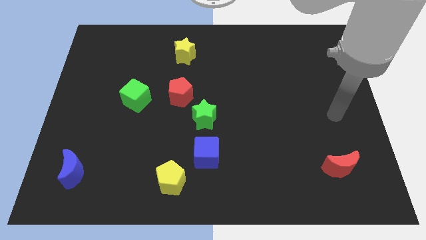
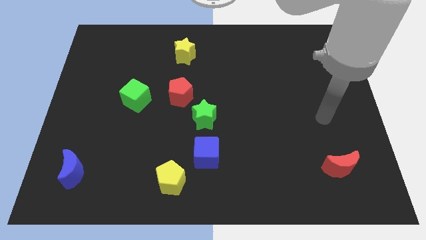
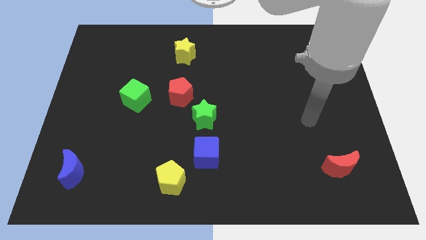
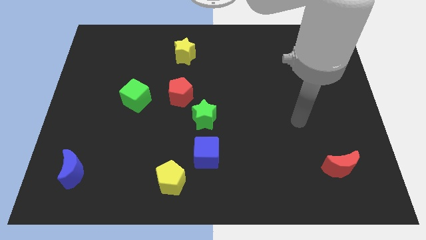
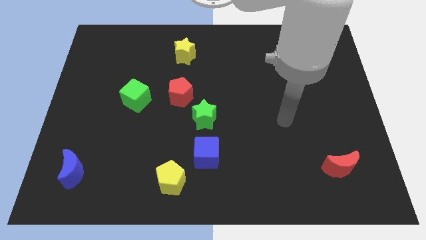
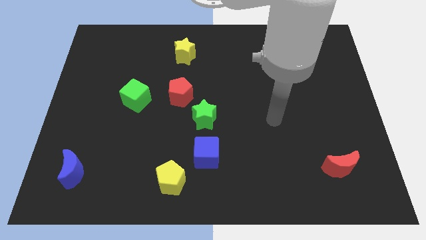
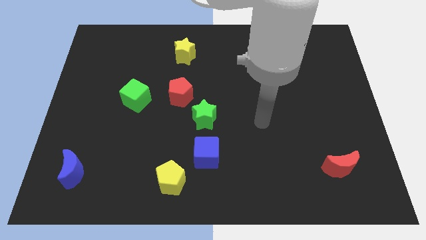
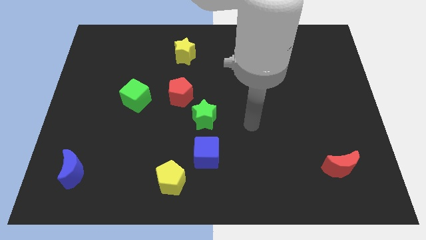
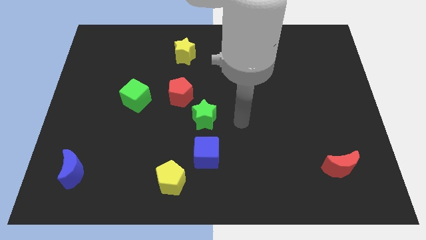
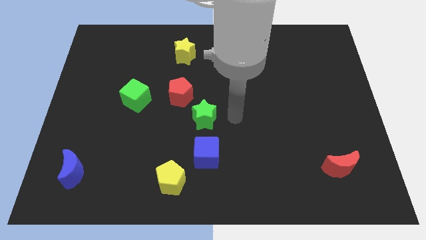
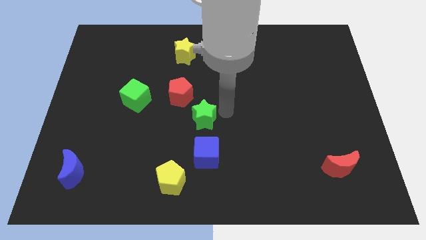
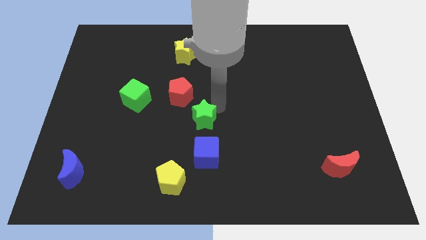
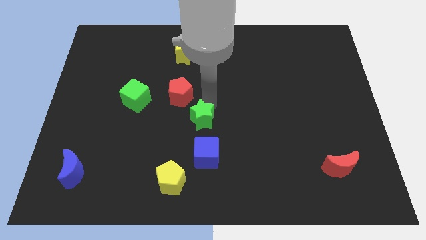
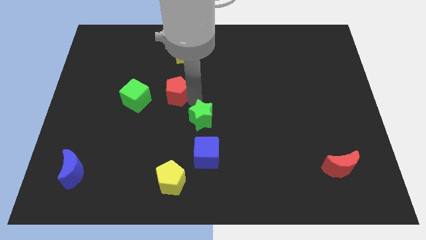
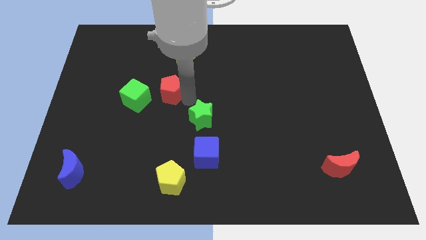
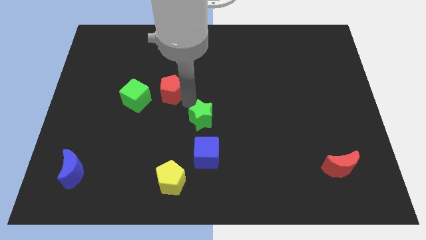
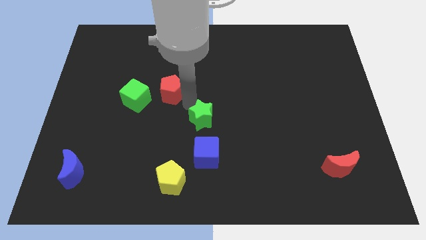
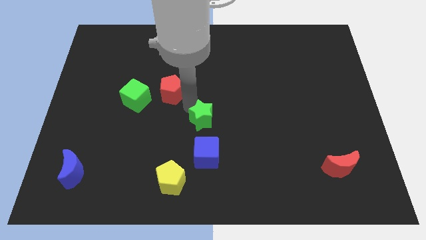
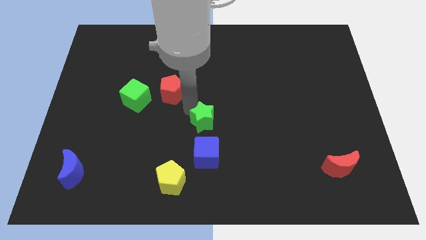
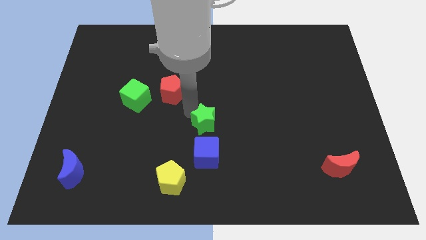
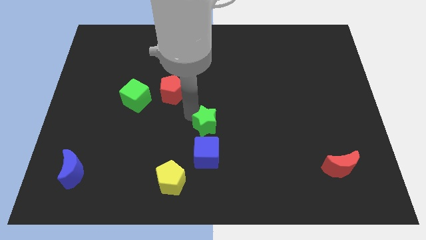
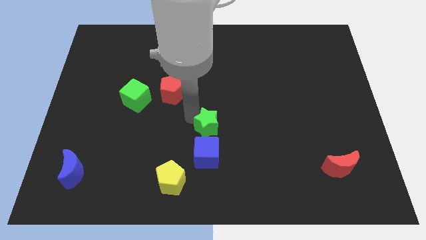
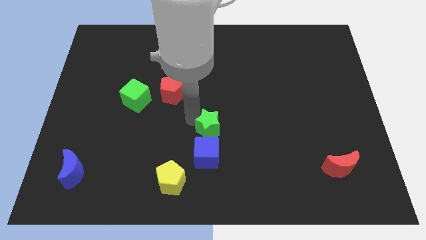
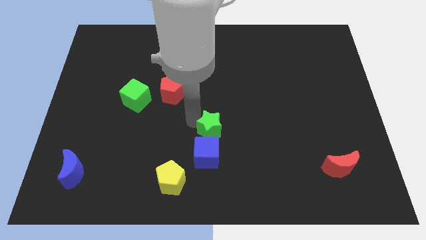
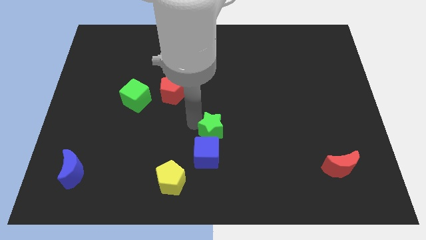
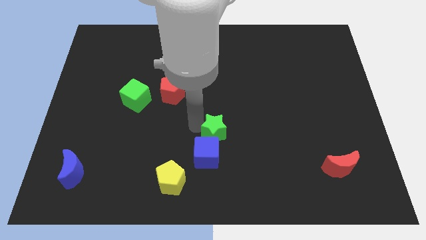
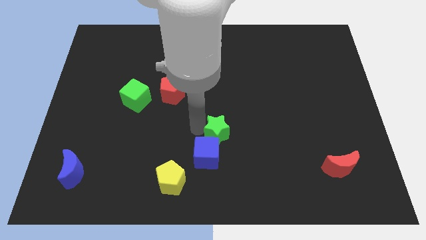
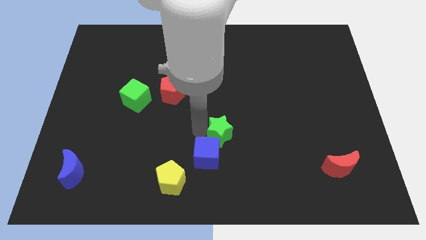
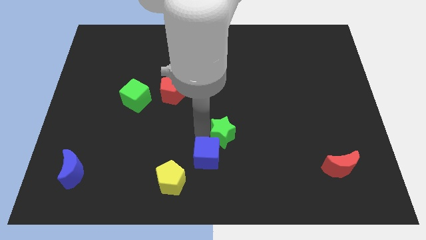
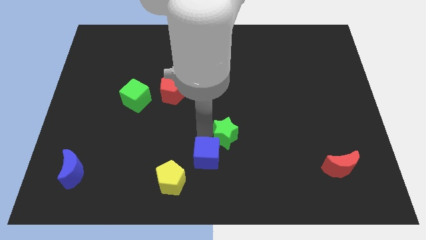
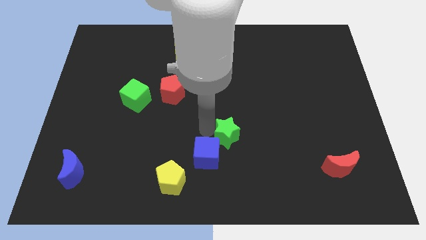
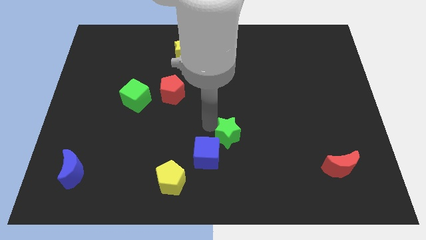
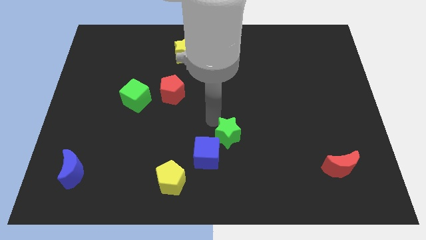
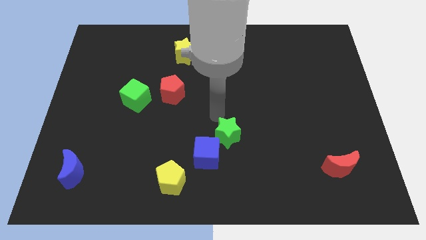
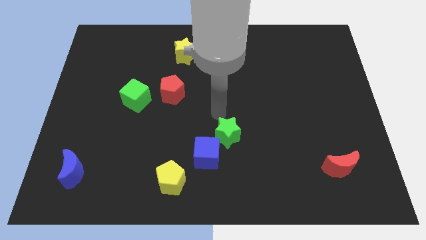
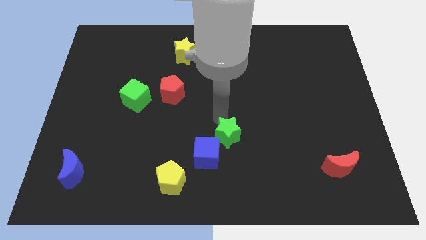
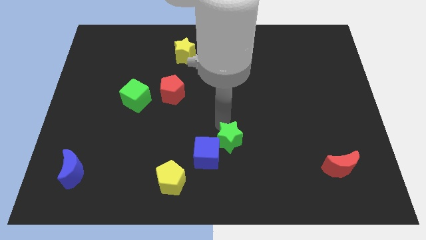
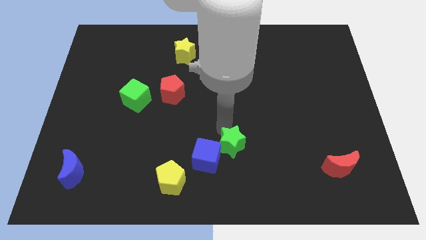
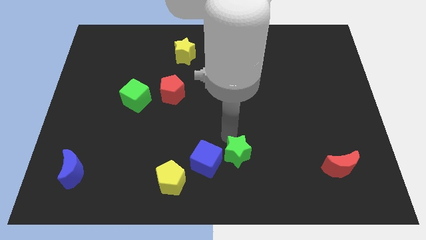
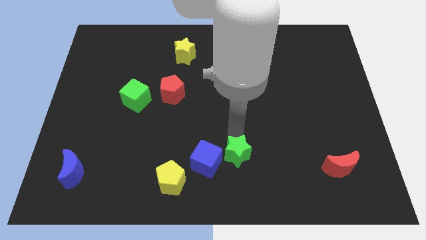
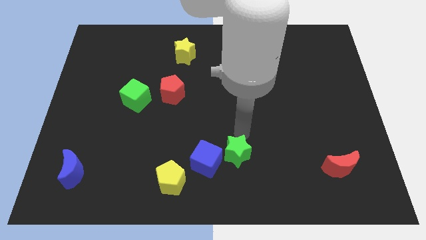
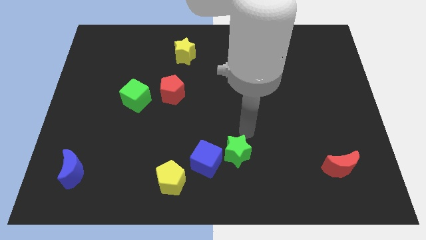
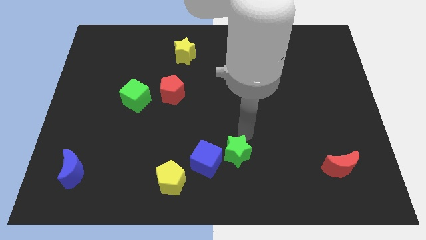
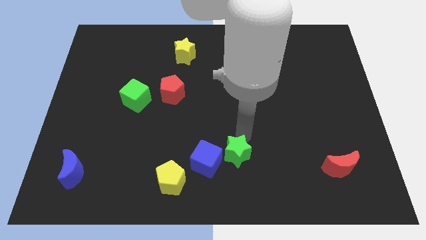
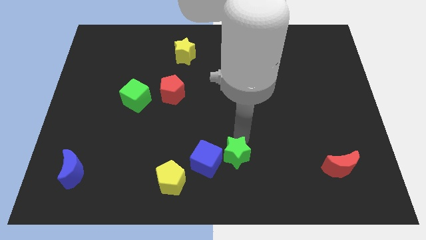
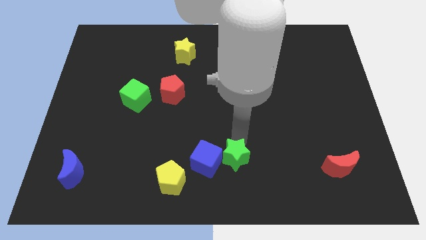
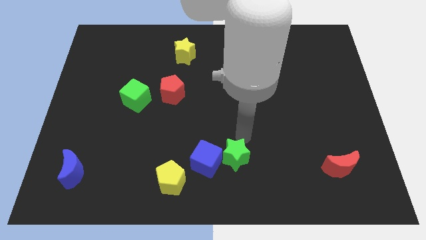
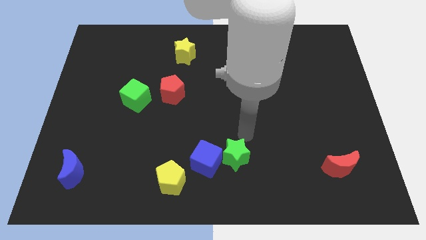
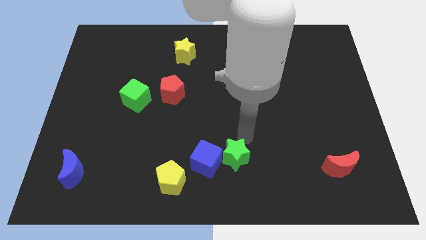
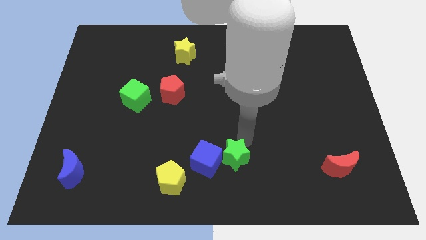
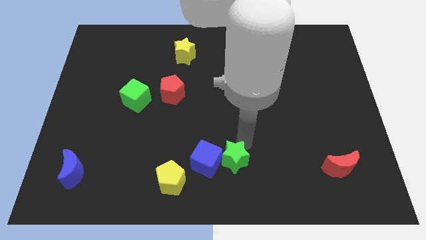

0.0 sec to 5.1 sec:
move the green star to the right of the yellow pentagon

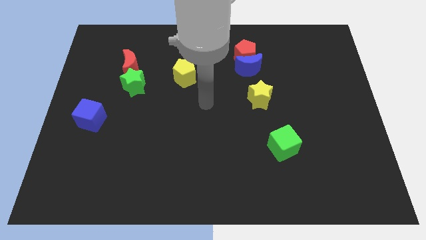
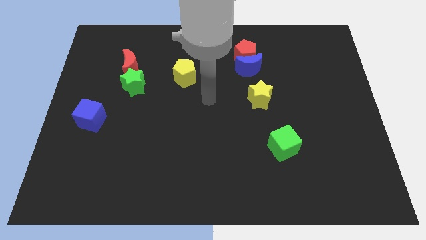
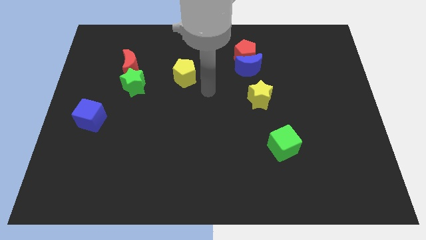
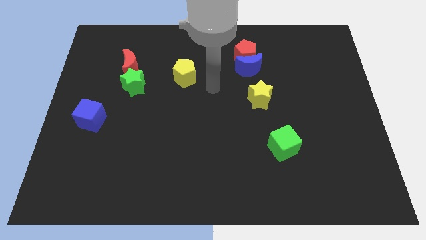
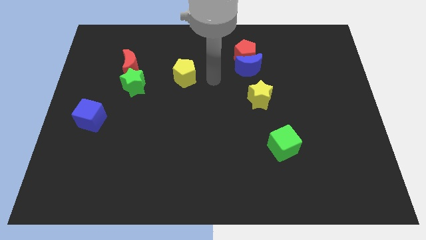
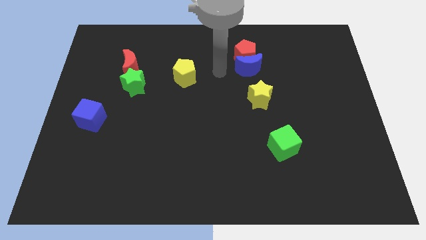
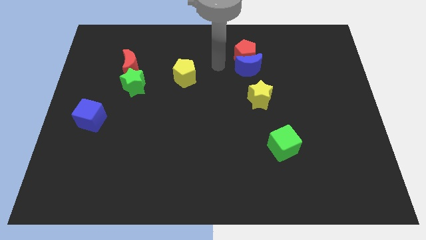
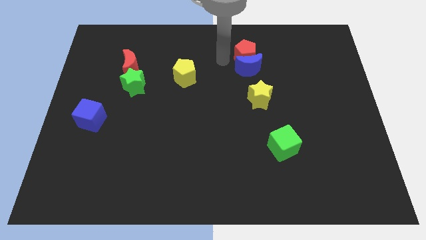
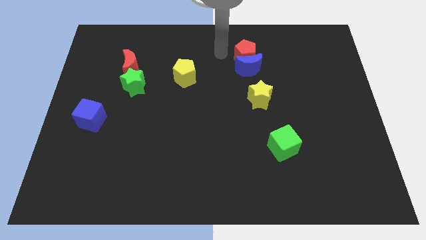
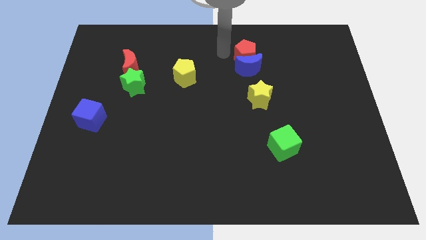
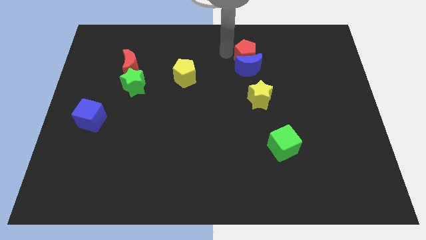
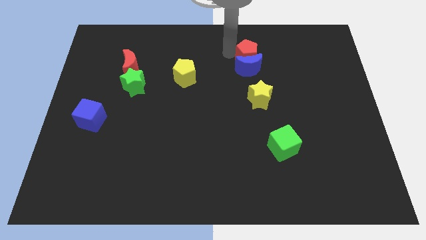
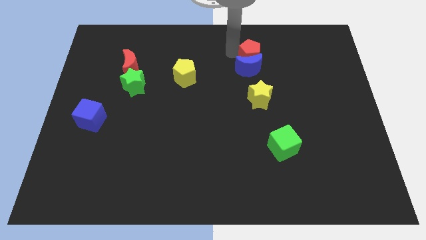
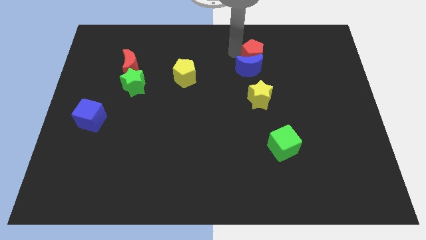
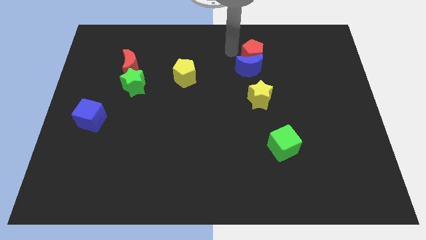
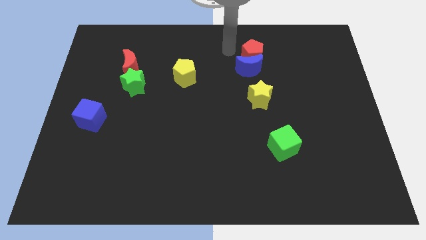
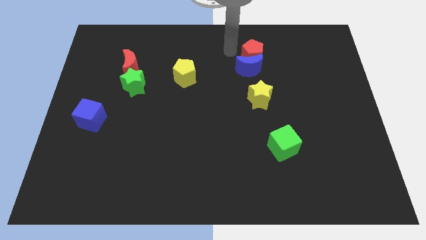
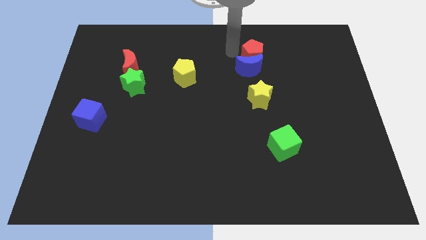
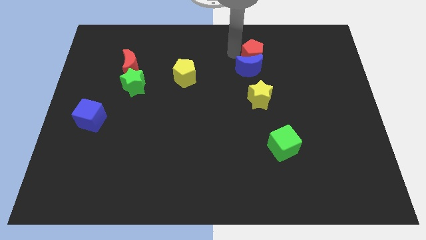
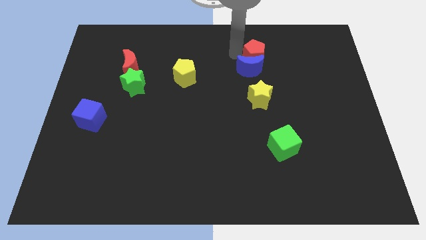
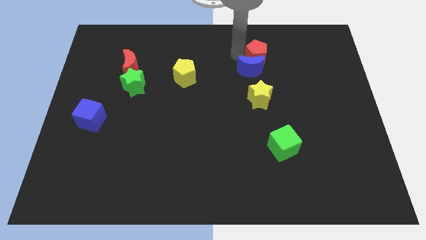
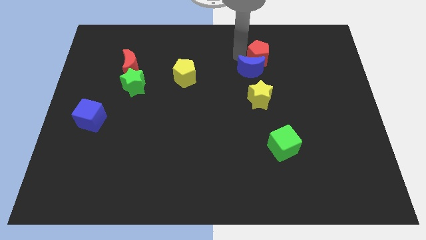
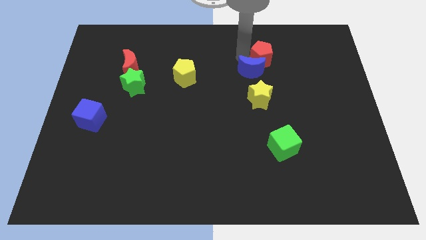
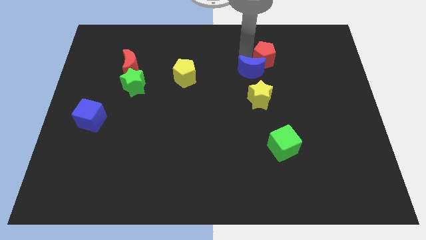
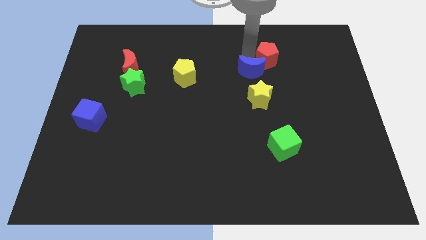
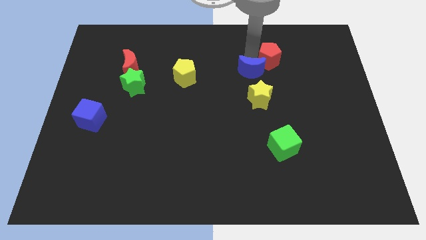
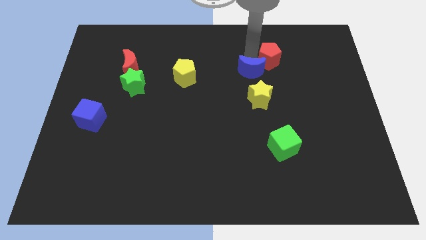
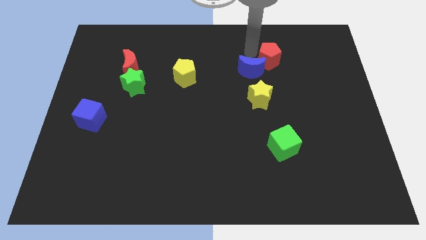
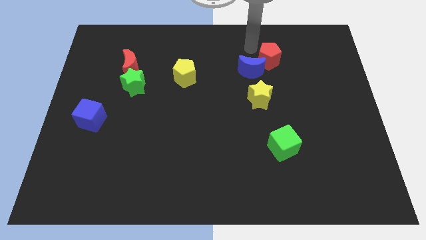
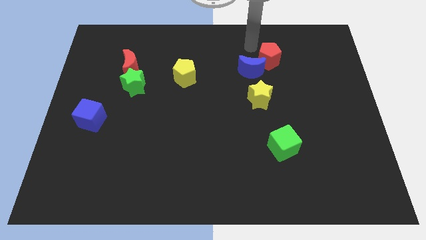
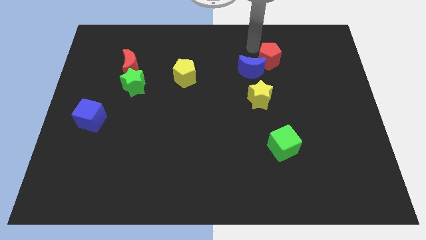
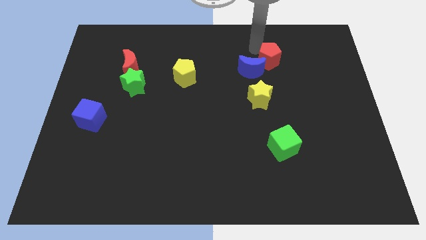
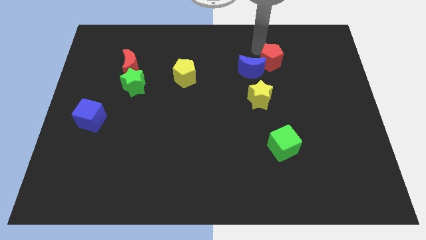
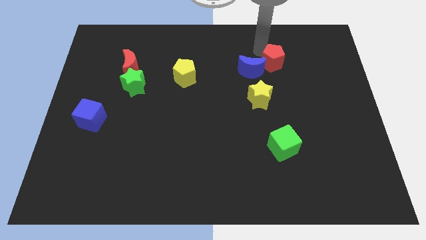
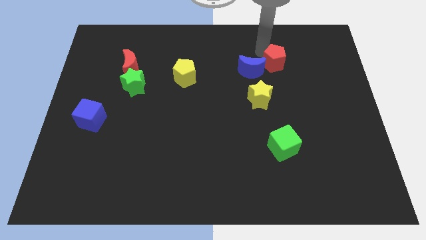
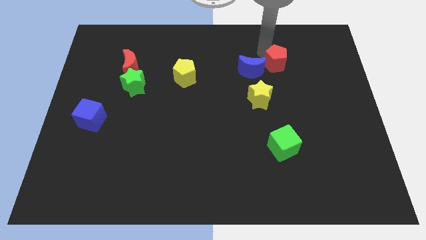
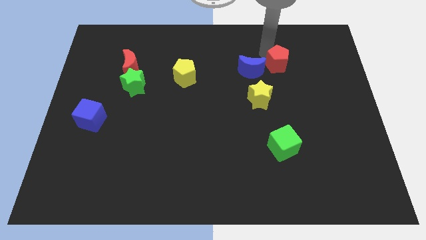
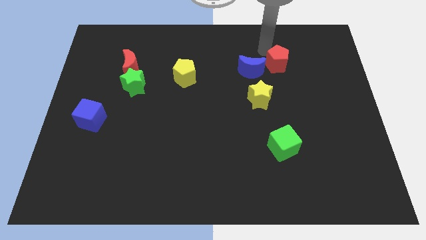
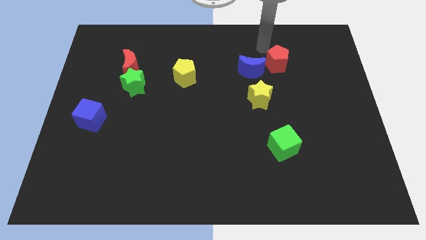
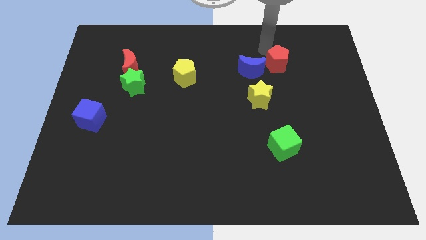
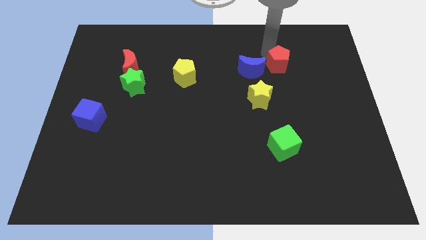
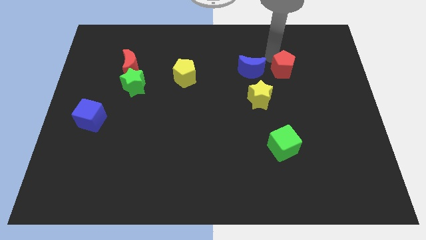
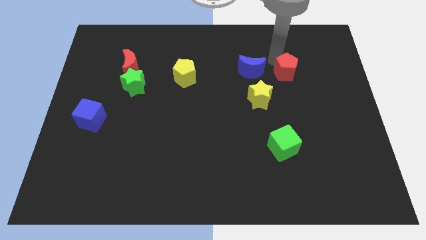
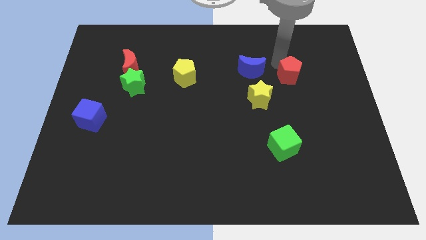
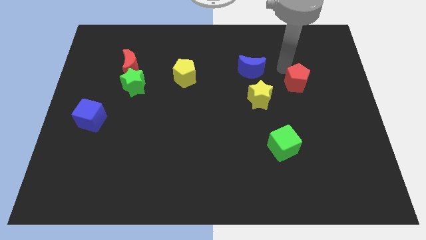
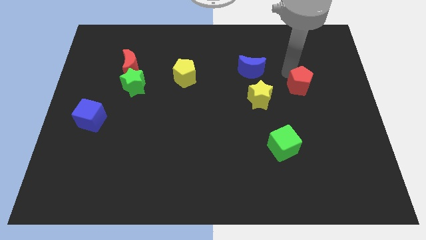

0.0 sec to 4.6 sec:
put the red pentagon just right of the yellow star
